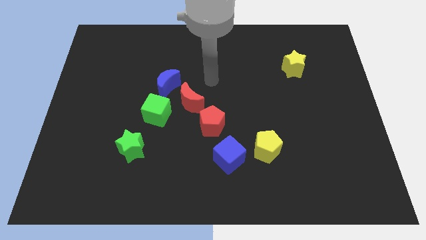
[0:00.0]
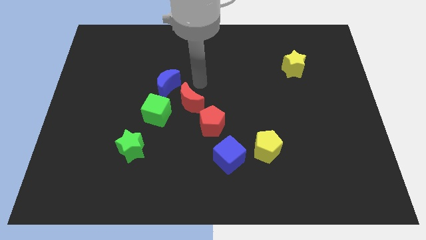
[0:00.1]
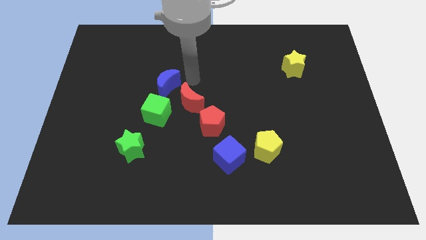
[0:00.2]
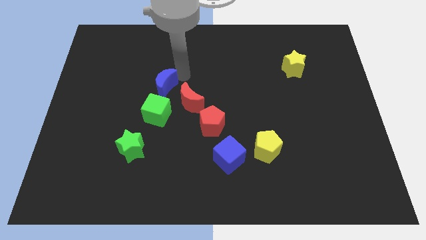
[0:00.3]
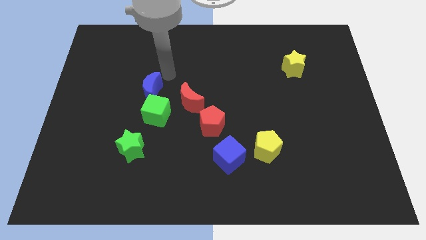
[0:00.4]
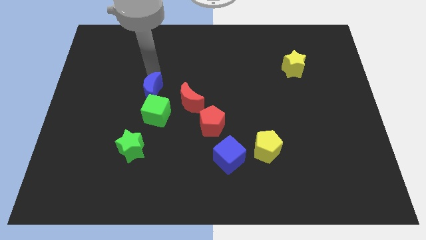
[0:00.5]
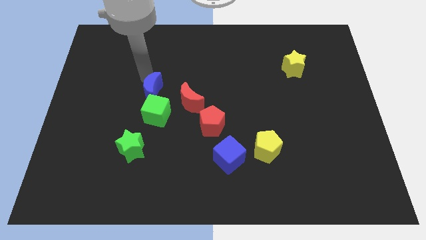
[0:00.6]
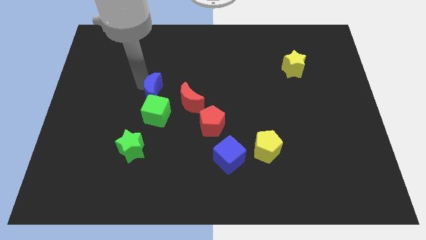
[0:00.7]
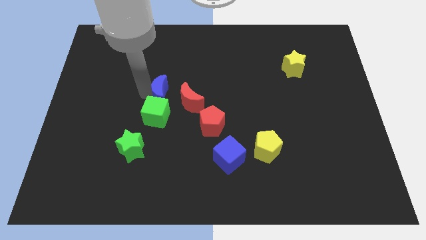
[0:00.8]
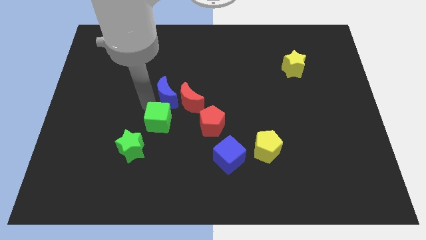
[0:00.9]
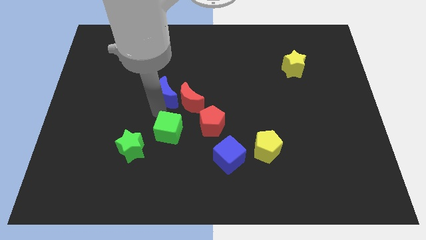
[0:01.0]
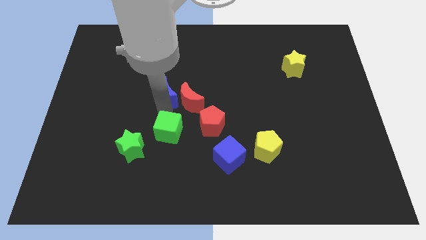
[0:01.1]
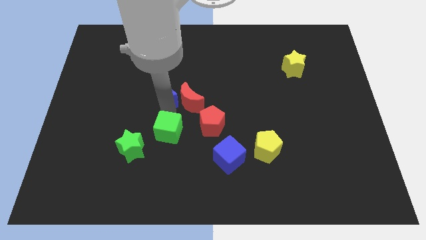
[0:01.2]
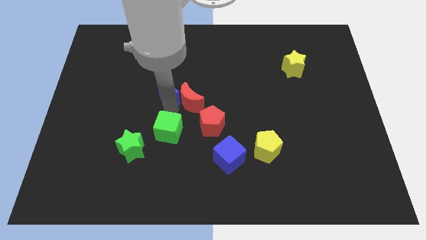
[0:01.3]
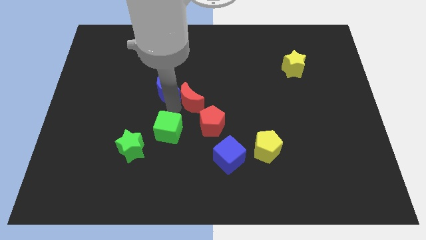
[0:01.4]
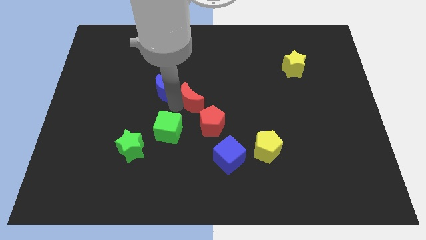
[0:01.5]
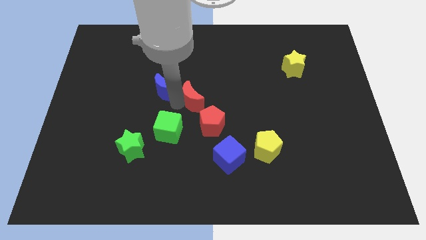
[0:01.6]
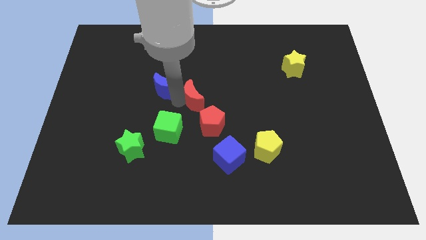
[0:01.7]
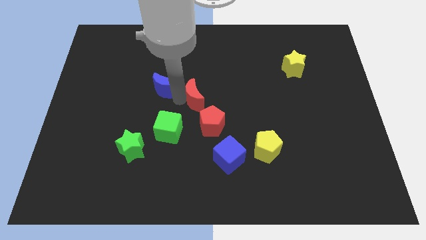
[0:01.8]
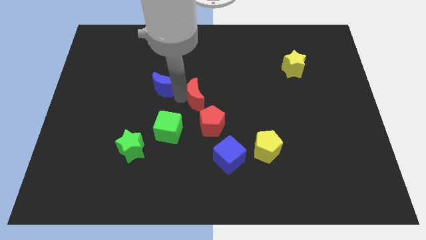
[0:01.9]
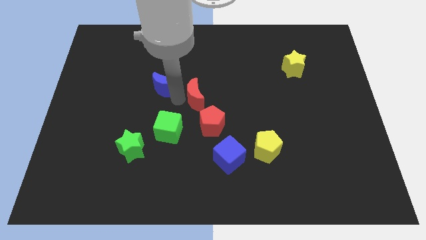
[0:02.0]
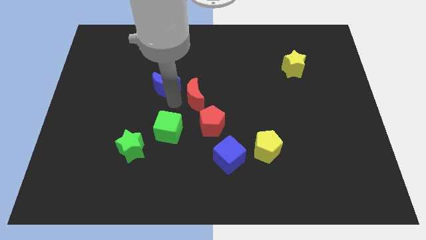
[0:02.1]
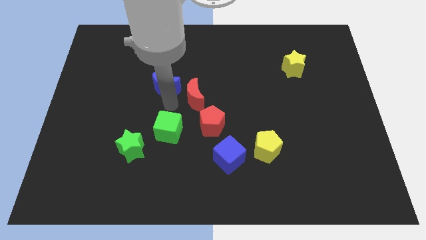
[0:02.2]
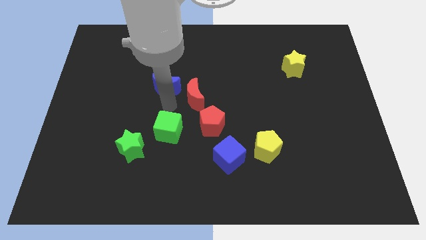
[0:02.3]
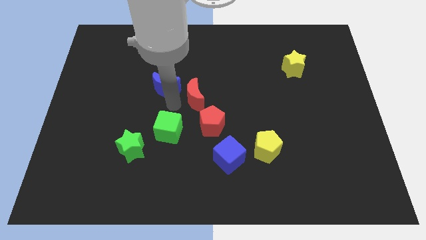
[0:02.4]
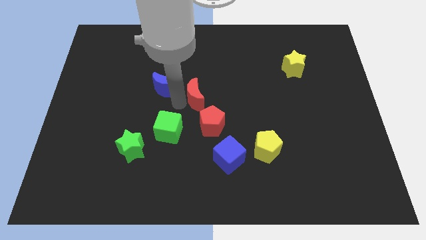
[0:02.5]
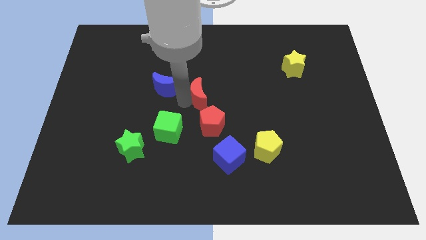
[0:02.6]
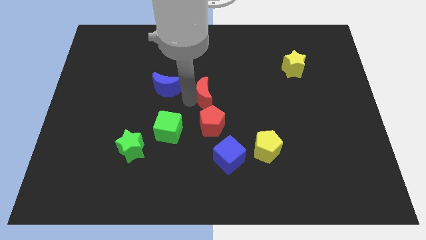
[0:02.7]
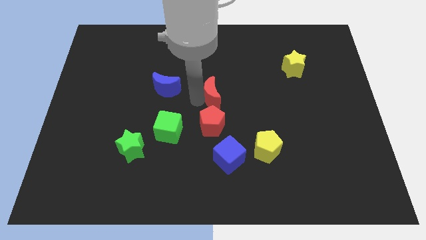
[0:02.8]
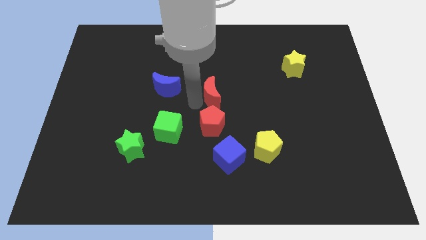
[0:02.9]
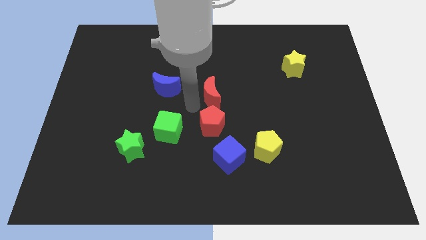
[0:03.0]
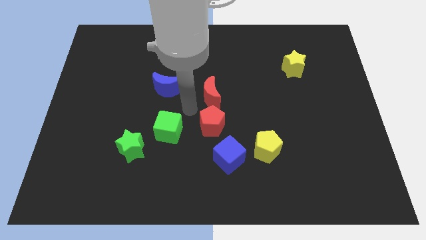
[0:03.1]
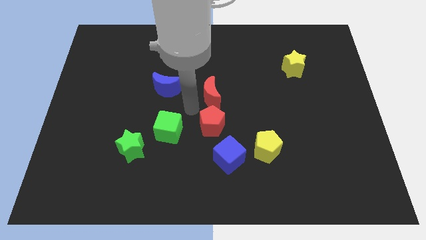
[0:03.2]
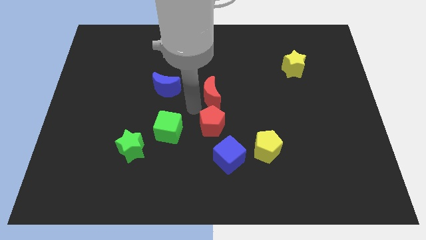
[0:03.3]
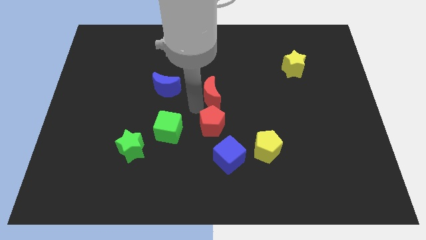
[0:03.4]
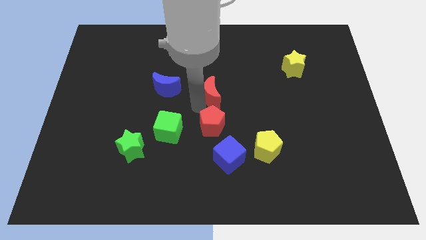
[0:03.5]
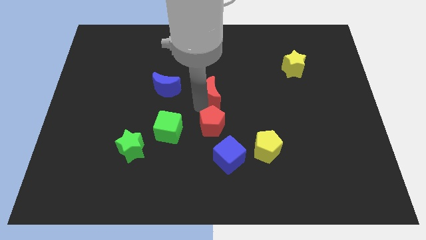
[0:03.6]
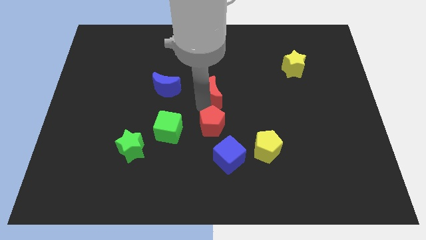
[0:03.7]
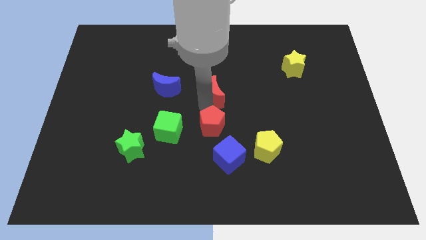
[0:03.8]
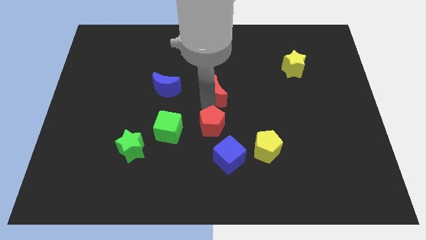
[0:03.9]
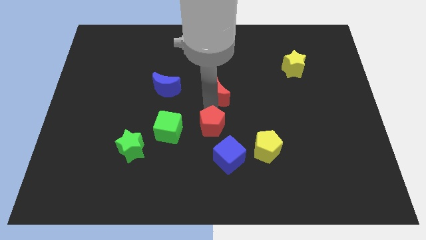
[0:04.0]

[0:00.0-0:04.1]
move the red moon away from the group of blocks

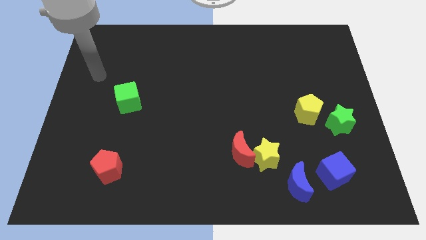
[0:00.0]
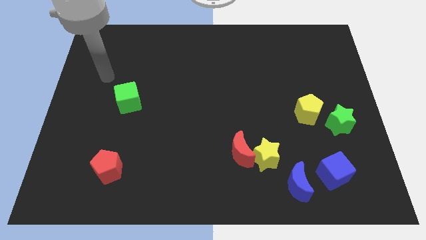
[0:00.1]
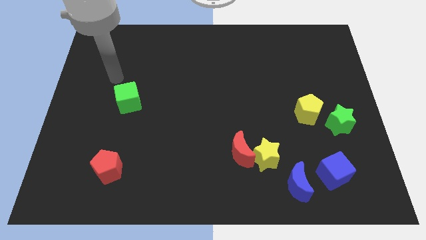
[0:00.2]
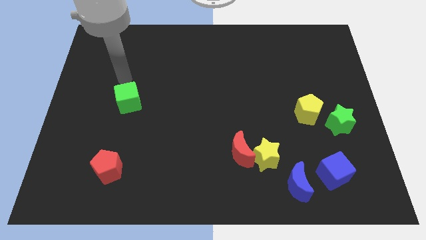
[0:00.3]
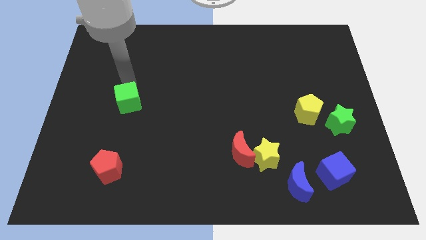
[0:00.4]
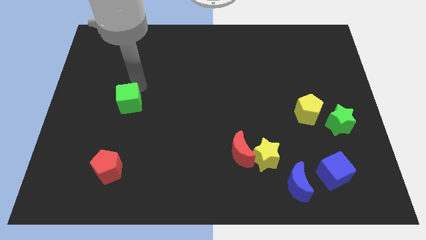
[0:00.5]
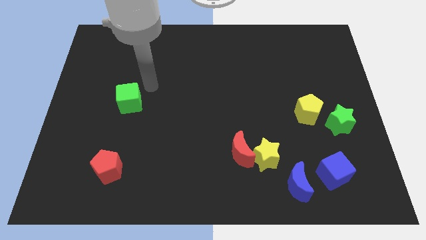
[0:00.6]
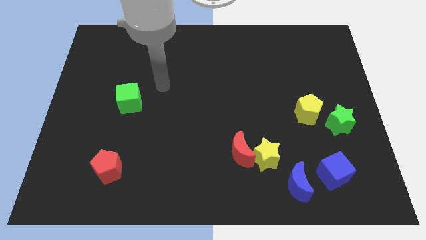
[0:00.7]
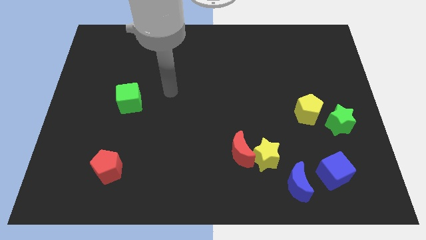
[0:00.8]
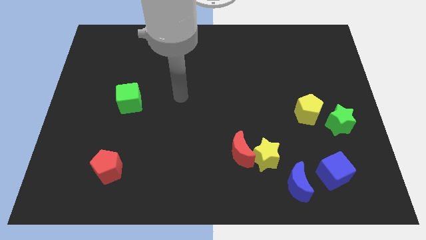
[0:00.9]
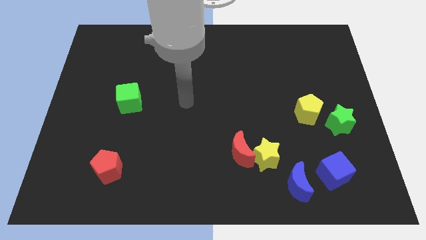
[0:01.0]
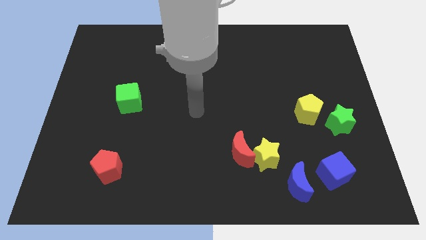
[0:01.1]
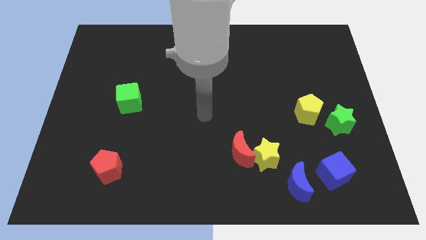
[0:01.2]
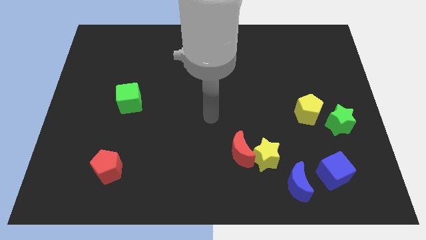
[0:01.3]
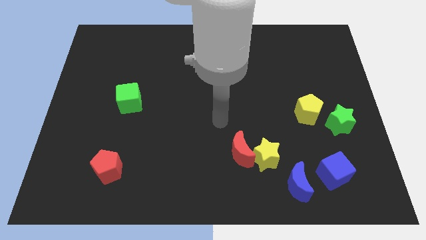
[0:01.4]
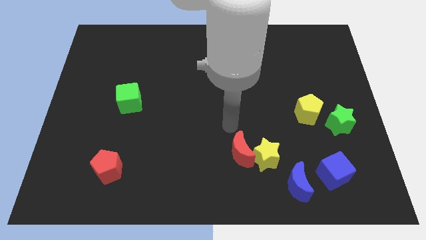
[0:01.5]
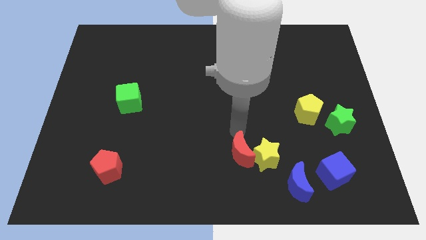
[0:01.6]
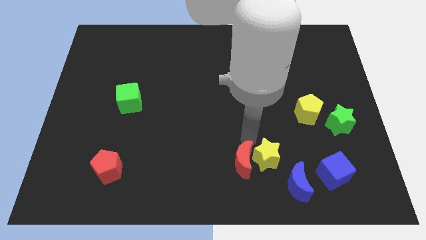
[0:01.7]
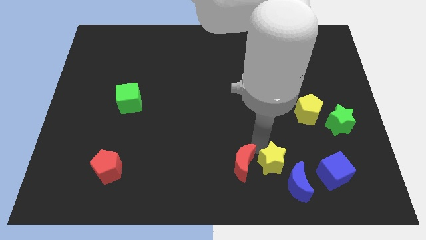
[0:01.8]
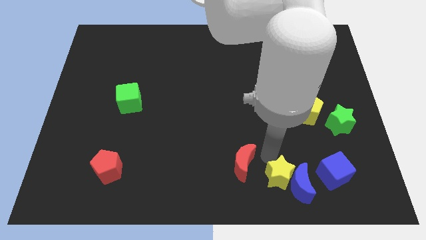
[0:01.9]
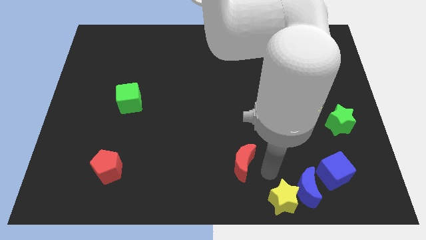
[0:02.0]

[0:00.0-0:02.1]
move the red moon away from the yellow star

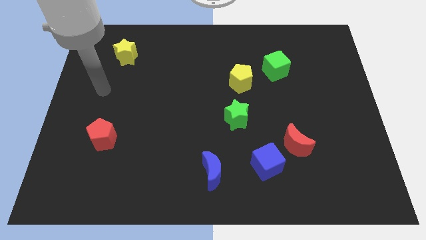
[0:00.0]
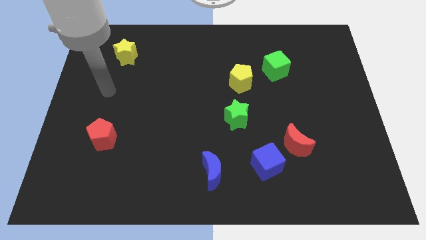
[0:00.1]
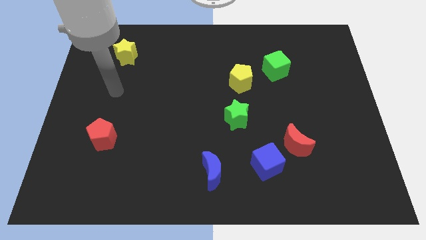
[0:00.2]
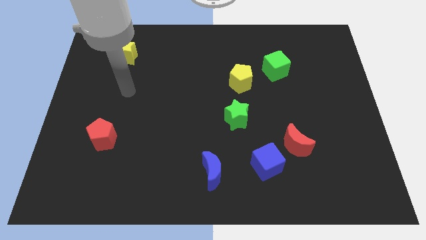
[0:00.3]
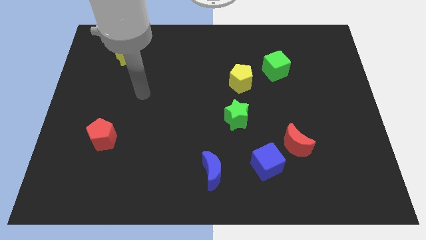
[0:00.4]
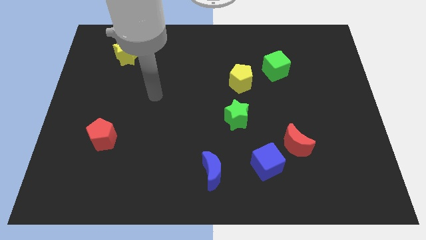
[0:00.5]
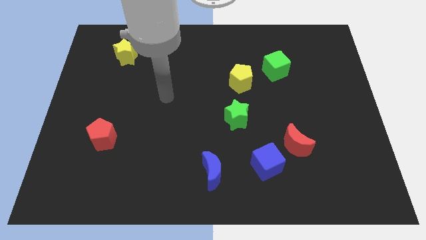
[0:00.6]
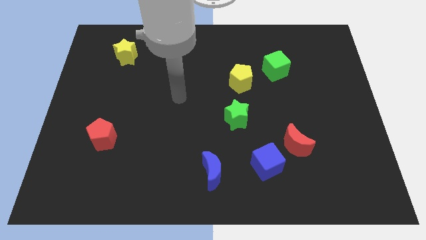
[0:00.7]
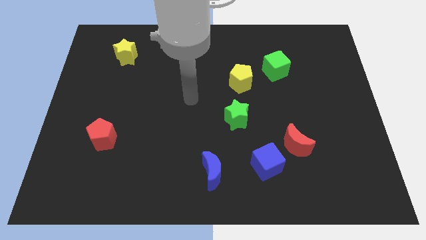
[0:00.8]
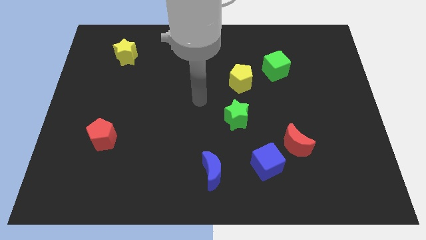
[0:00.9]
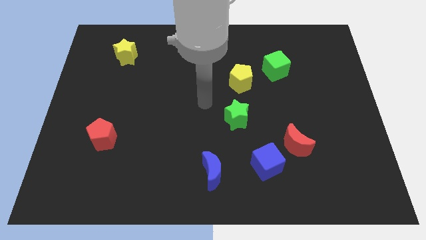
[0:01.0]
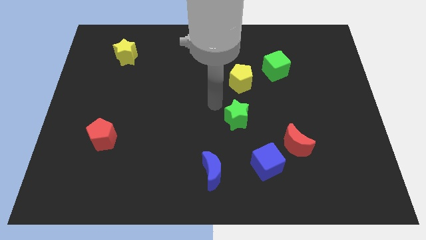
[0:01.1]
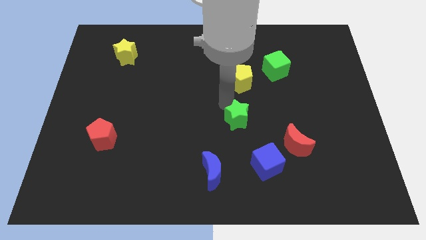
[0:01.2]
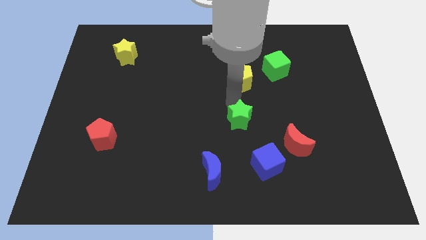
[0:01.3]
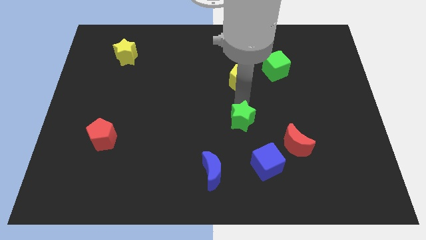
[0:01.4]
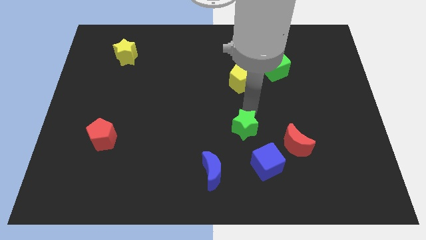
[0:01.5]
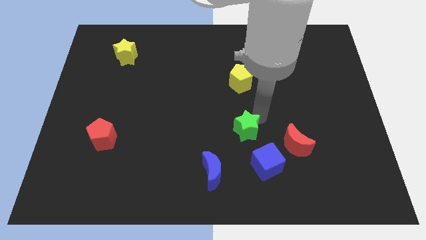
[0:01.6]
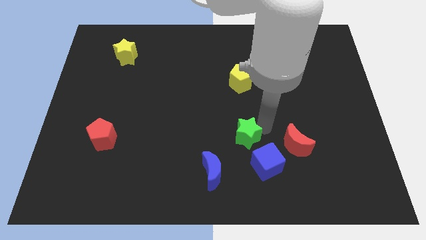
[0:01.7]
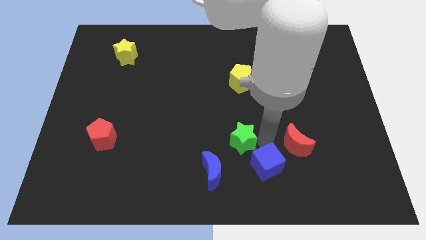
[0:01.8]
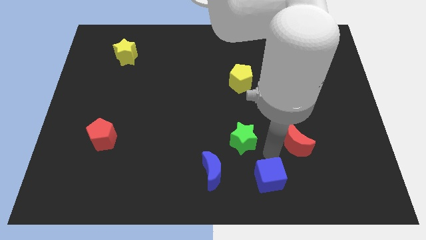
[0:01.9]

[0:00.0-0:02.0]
separate the red moon from the blue cube

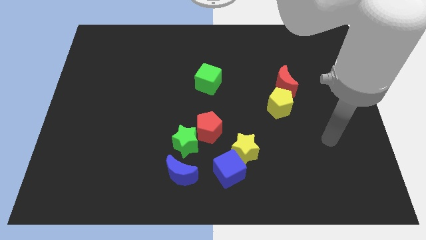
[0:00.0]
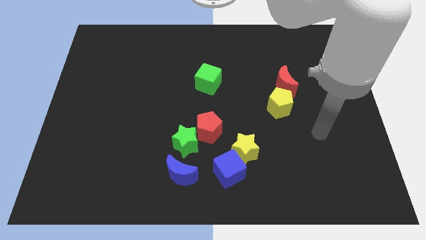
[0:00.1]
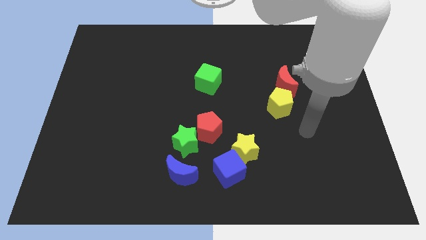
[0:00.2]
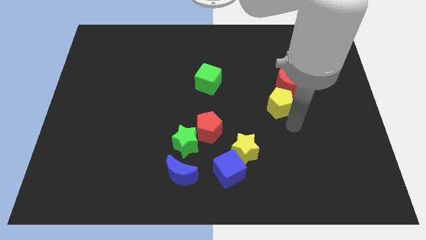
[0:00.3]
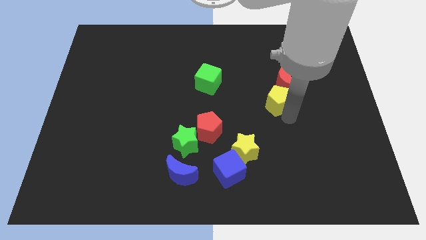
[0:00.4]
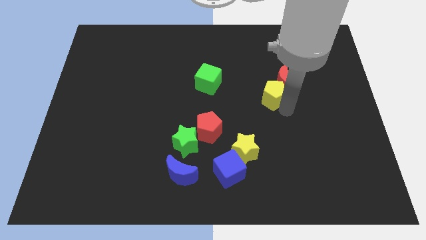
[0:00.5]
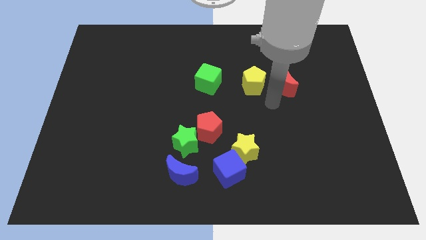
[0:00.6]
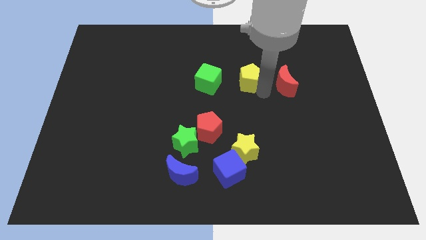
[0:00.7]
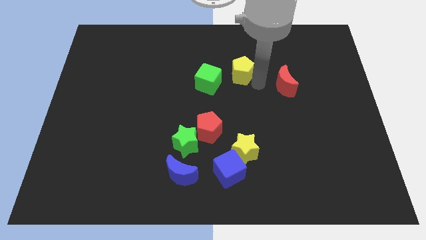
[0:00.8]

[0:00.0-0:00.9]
separate the red moon from the yellow pentagon

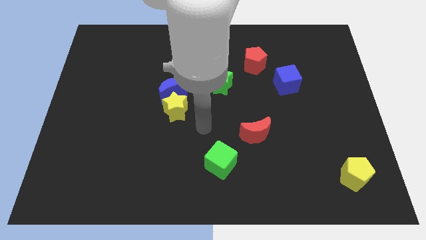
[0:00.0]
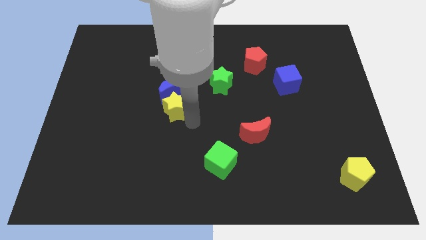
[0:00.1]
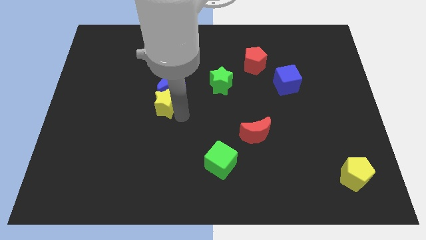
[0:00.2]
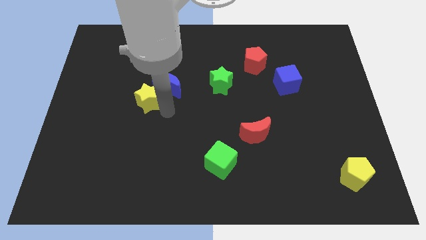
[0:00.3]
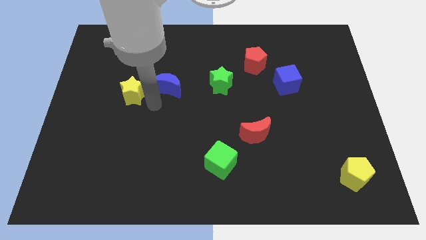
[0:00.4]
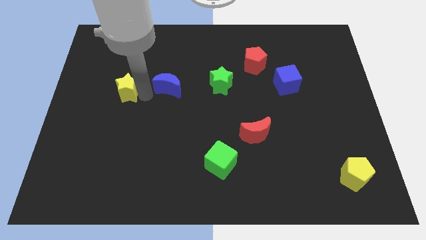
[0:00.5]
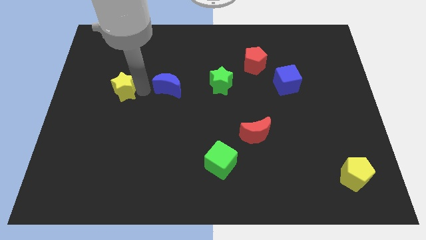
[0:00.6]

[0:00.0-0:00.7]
separate the blue moon from the yellow star
